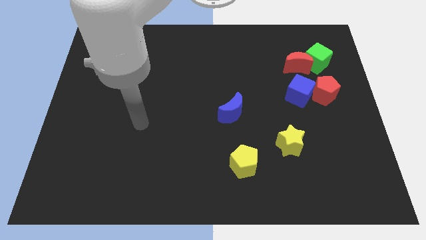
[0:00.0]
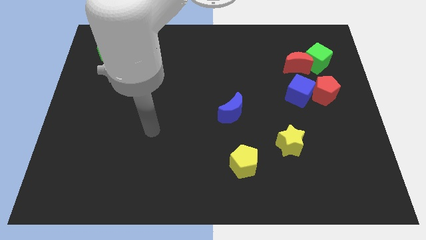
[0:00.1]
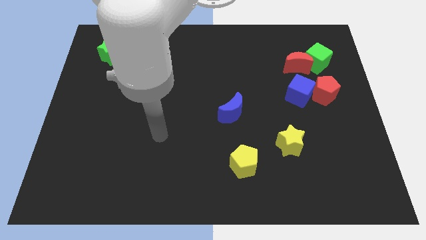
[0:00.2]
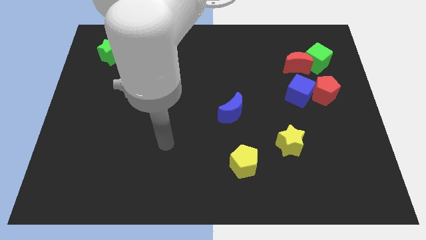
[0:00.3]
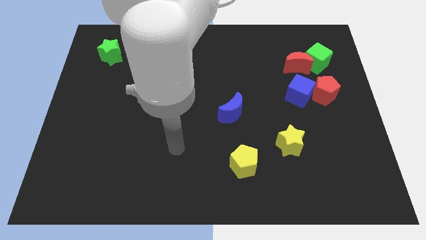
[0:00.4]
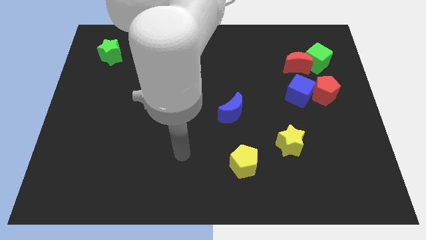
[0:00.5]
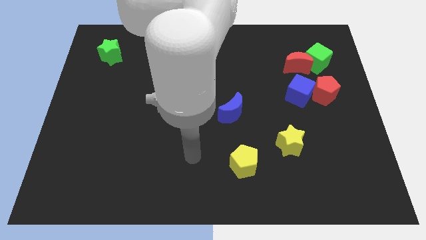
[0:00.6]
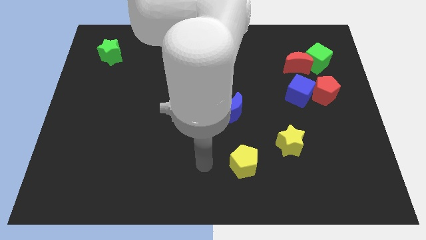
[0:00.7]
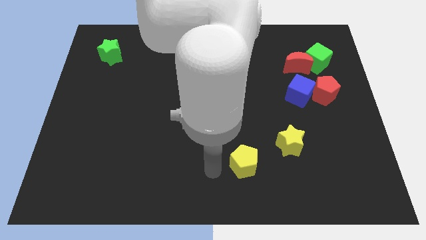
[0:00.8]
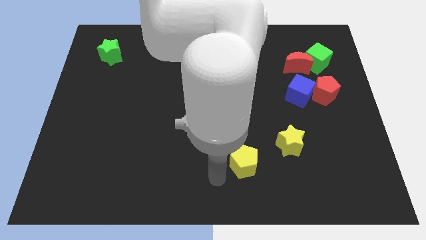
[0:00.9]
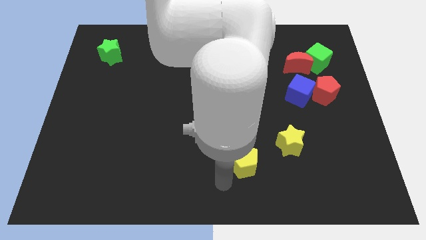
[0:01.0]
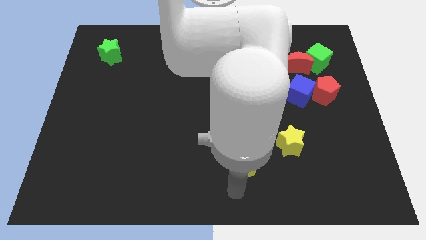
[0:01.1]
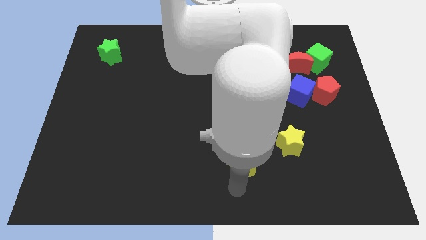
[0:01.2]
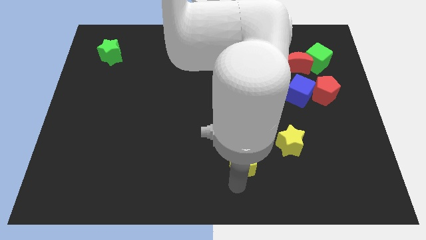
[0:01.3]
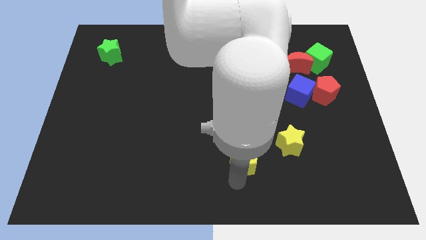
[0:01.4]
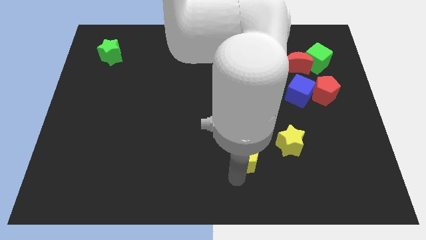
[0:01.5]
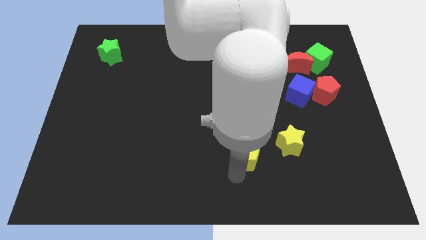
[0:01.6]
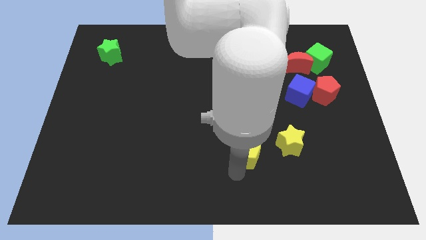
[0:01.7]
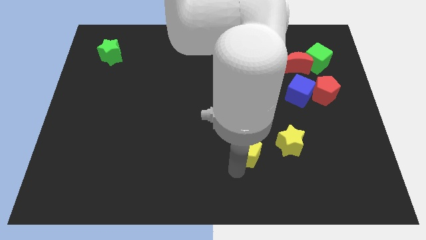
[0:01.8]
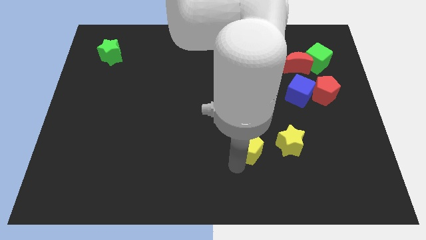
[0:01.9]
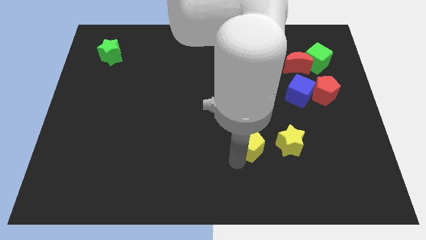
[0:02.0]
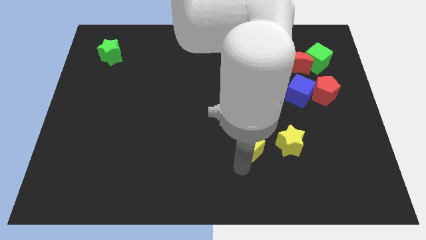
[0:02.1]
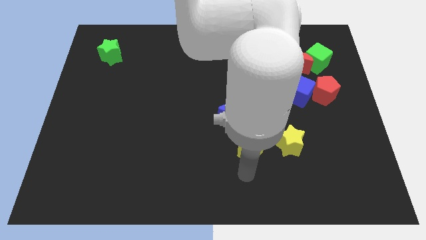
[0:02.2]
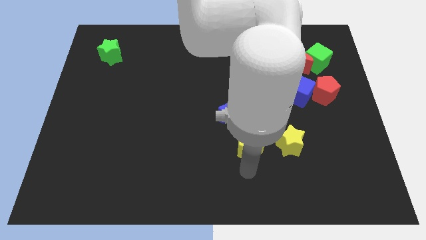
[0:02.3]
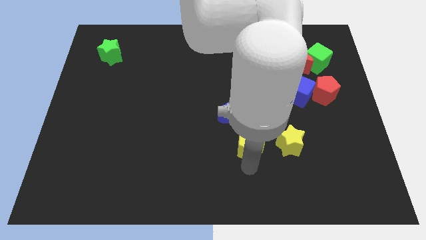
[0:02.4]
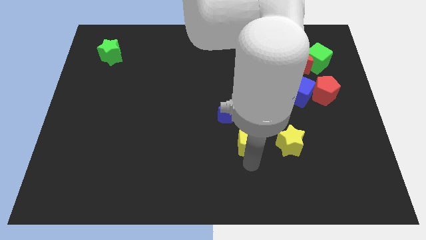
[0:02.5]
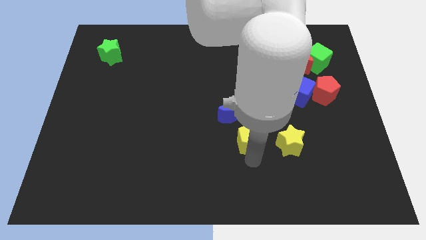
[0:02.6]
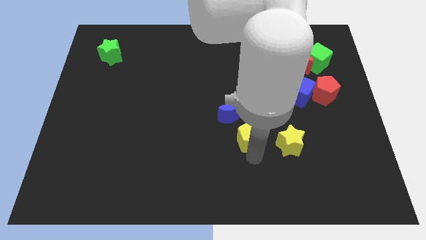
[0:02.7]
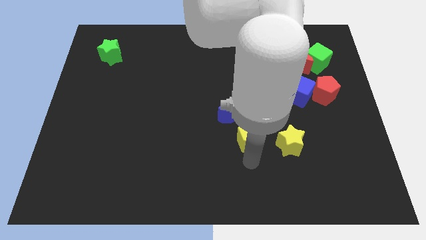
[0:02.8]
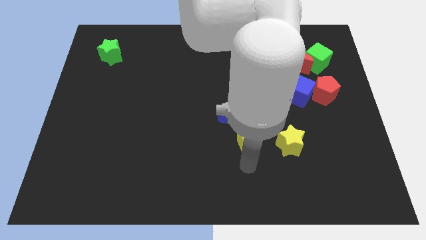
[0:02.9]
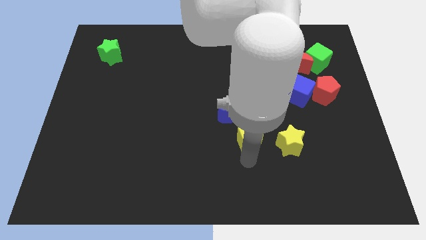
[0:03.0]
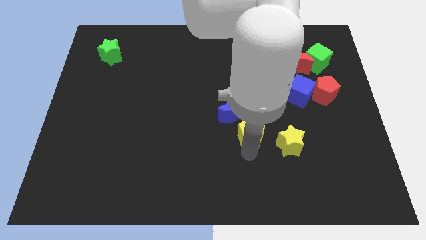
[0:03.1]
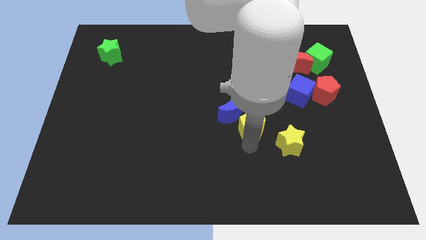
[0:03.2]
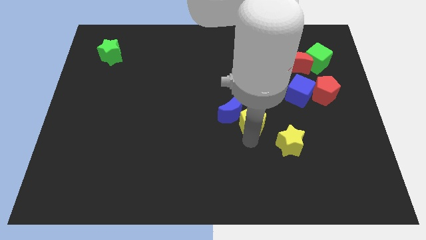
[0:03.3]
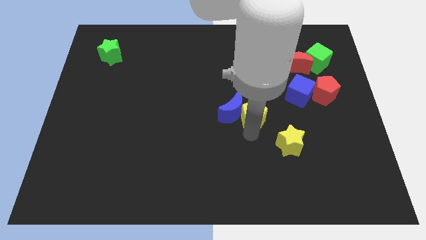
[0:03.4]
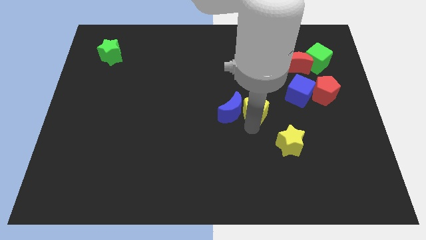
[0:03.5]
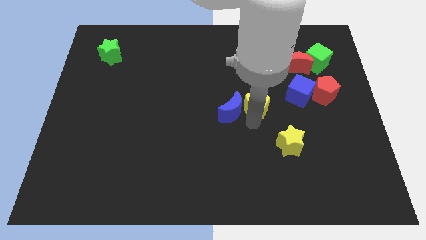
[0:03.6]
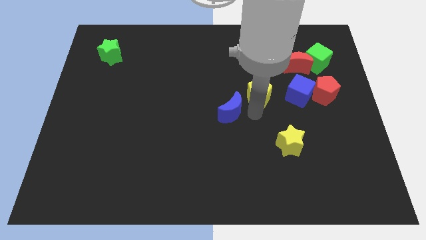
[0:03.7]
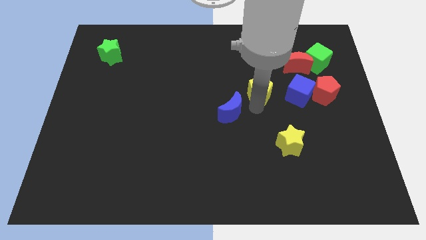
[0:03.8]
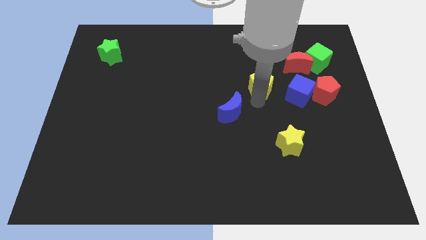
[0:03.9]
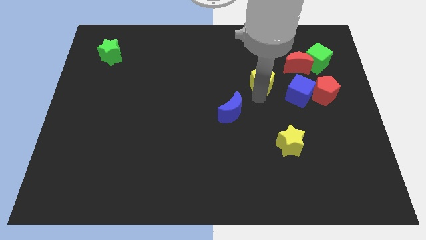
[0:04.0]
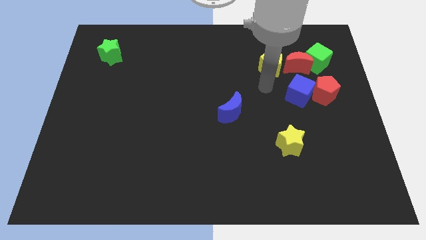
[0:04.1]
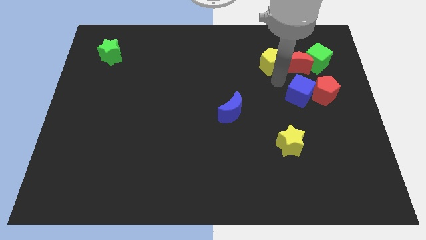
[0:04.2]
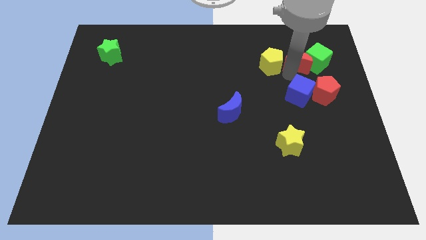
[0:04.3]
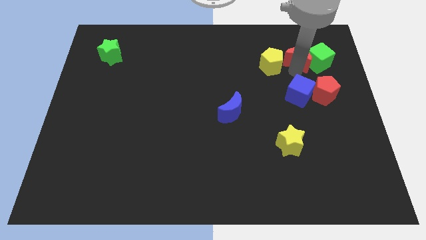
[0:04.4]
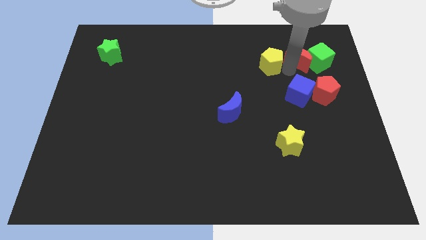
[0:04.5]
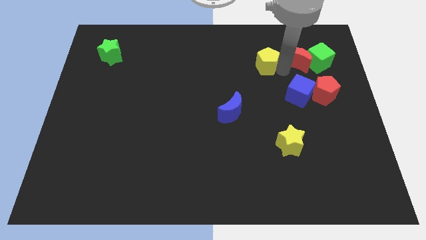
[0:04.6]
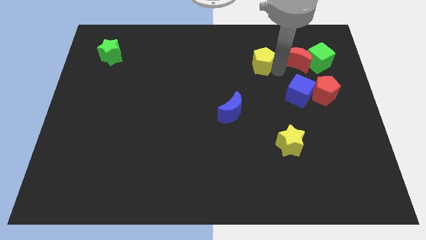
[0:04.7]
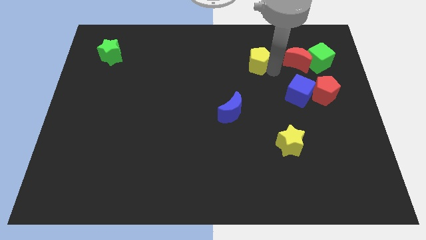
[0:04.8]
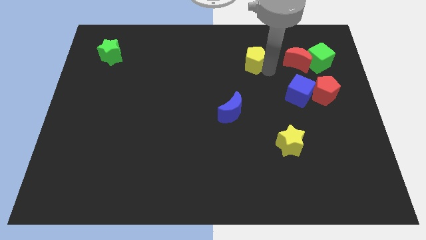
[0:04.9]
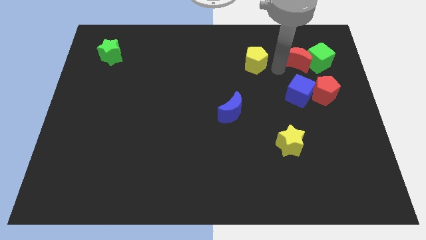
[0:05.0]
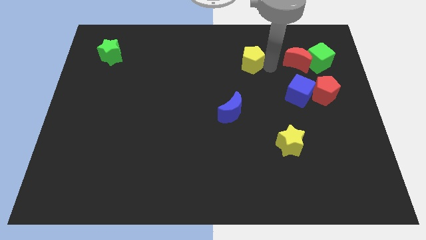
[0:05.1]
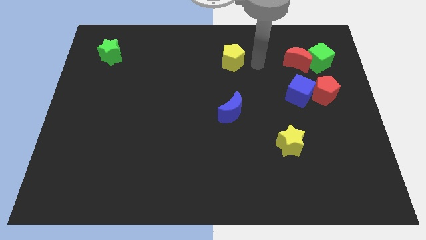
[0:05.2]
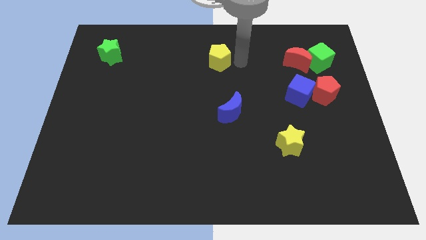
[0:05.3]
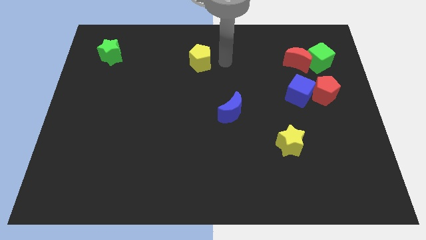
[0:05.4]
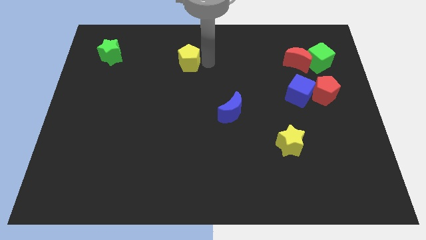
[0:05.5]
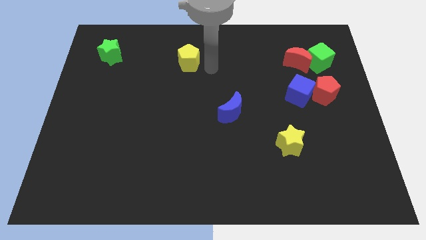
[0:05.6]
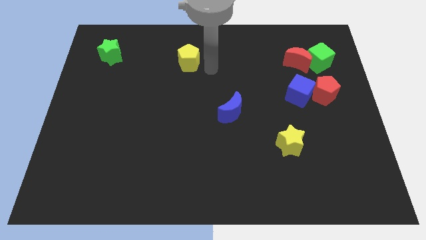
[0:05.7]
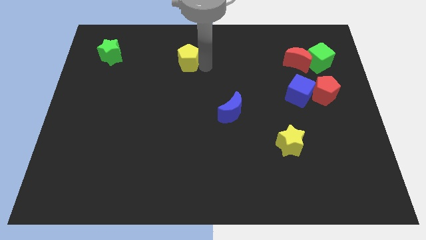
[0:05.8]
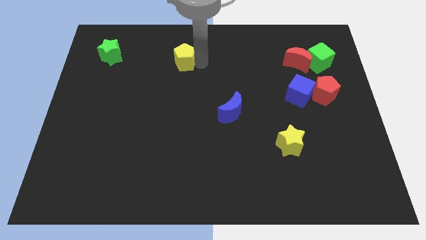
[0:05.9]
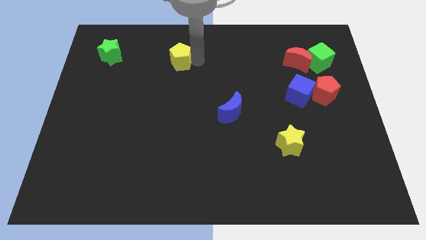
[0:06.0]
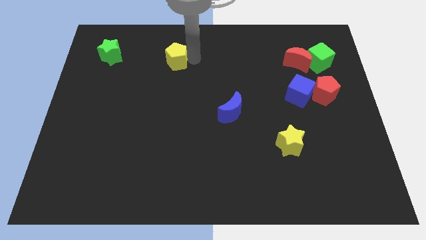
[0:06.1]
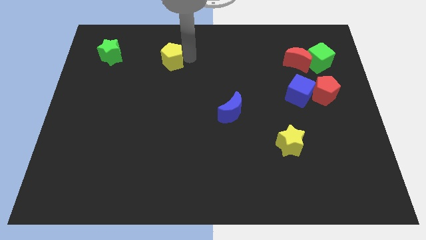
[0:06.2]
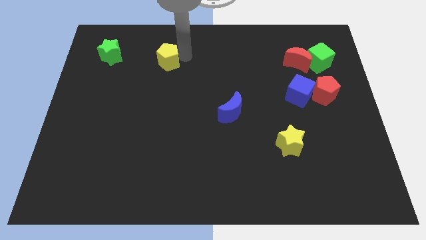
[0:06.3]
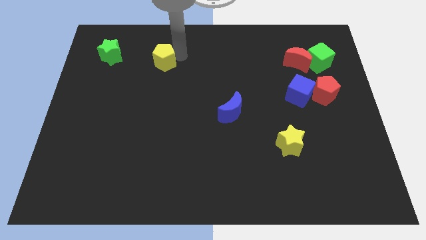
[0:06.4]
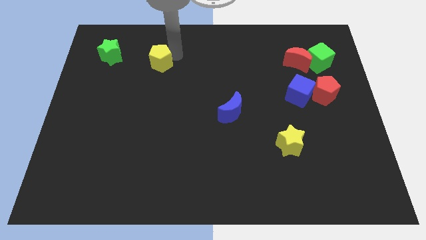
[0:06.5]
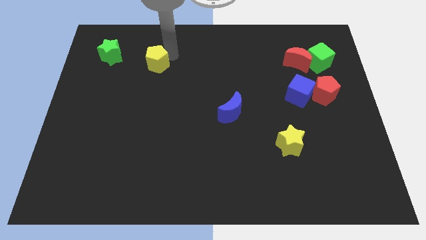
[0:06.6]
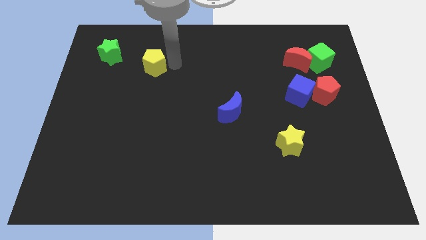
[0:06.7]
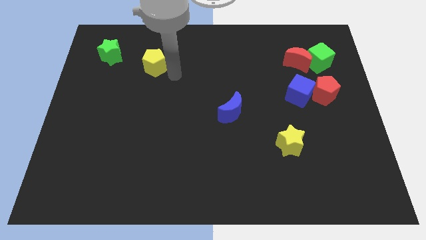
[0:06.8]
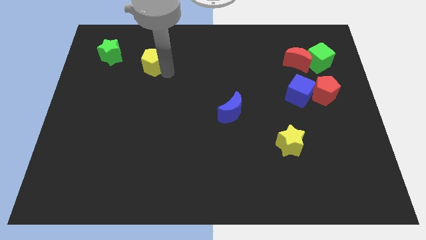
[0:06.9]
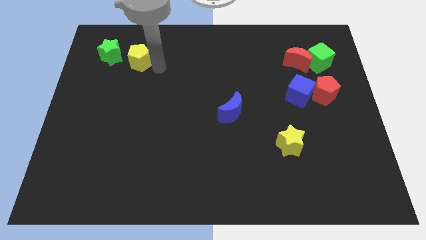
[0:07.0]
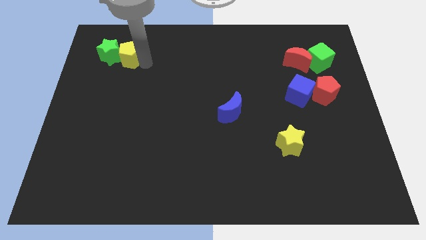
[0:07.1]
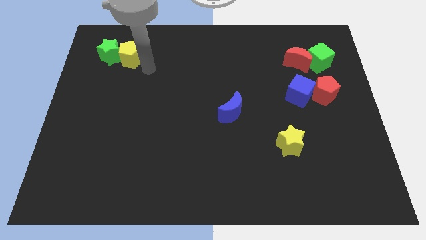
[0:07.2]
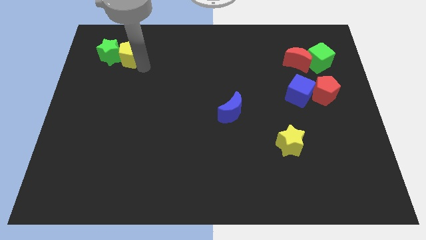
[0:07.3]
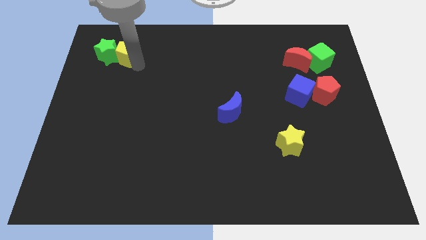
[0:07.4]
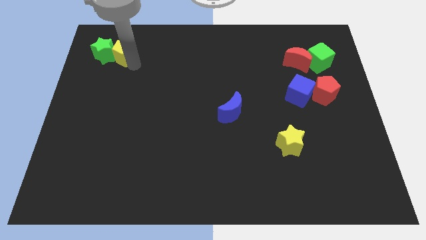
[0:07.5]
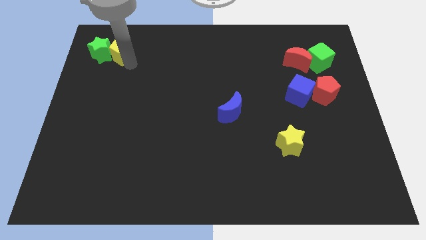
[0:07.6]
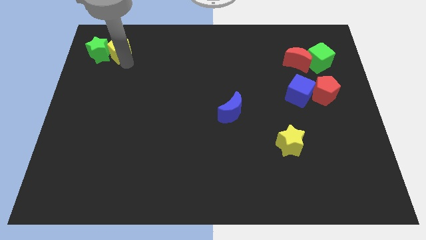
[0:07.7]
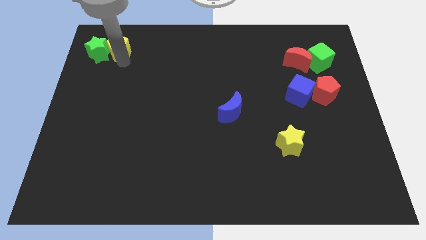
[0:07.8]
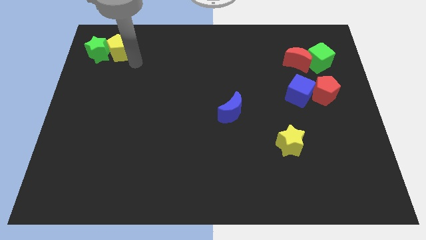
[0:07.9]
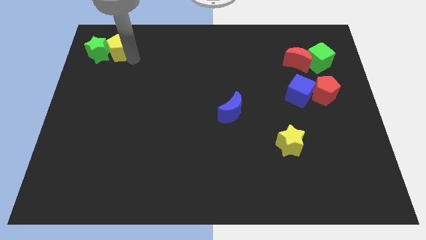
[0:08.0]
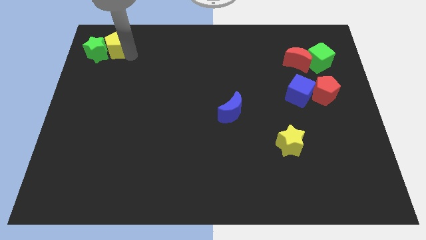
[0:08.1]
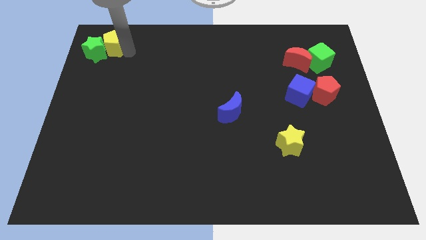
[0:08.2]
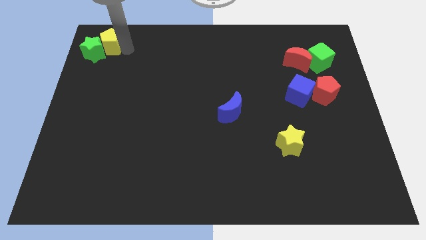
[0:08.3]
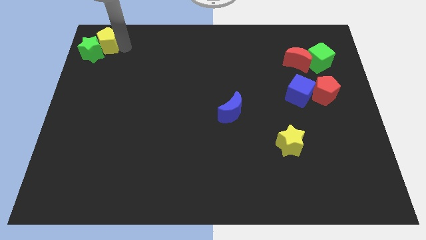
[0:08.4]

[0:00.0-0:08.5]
put the yellow pentagon to the top left corner
